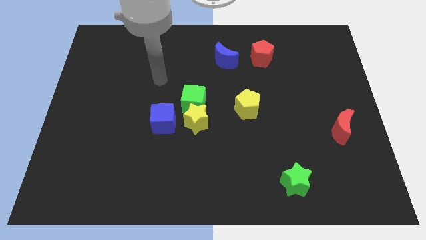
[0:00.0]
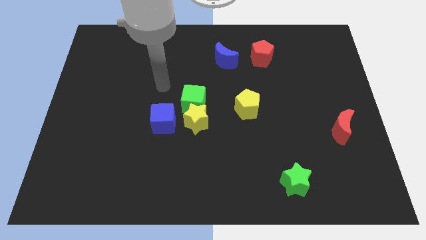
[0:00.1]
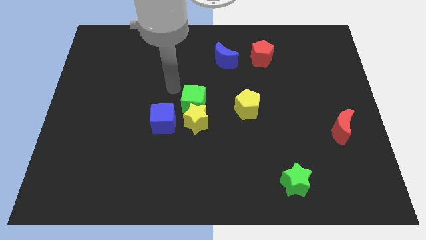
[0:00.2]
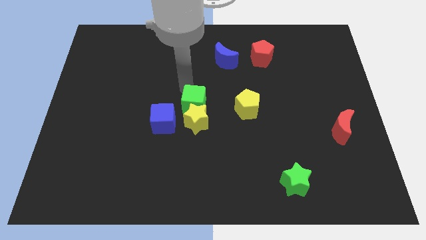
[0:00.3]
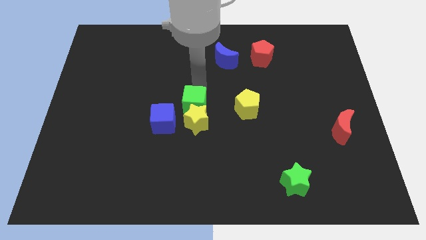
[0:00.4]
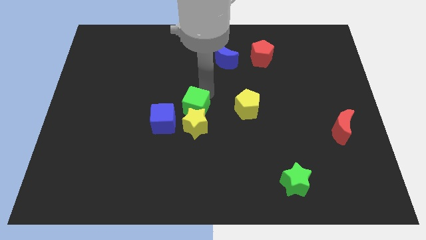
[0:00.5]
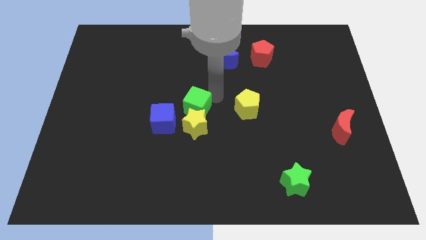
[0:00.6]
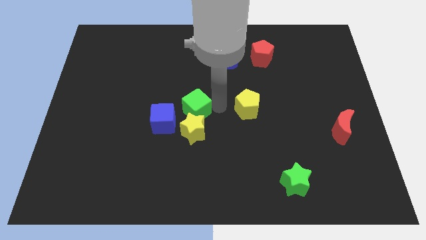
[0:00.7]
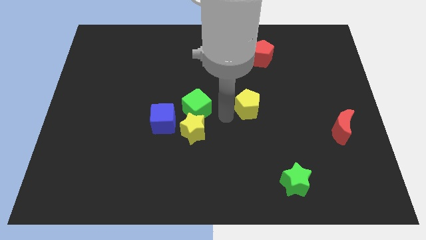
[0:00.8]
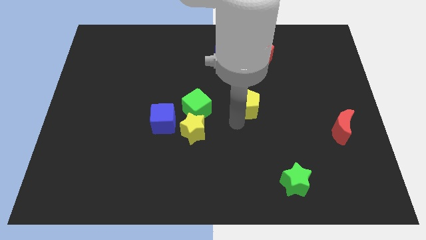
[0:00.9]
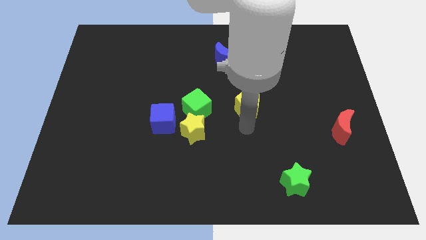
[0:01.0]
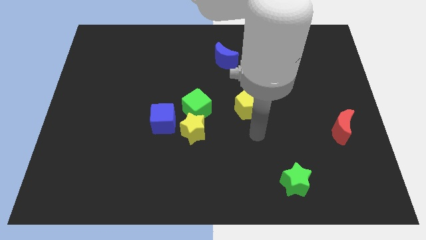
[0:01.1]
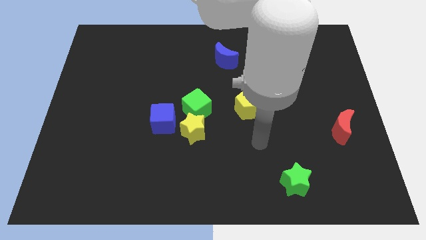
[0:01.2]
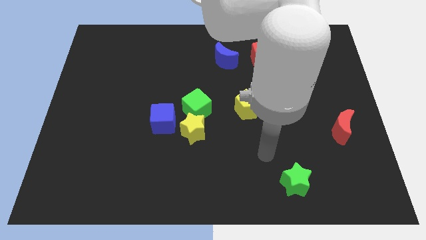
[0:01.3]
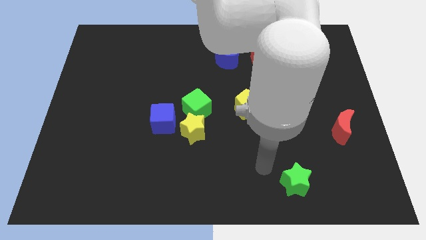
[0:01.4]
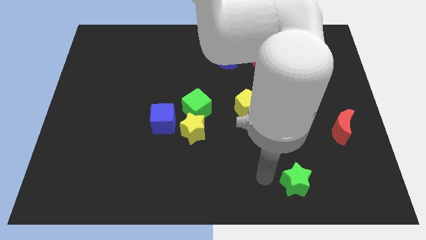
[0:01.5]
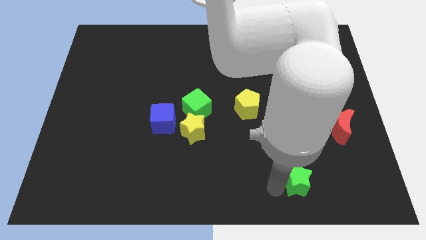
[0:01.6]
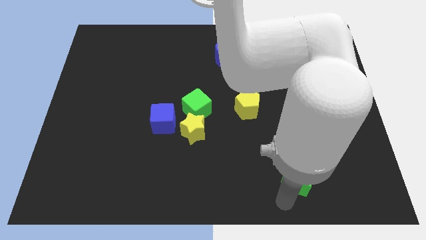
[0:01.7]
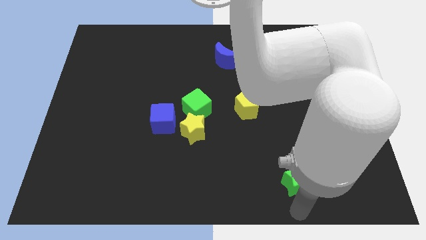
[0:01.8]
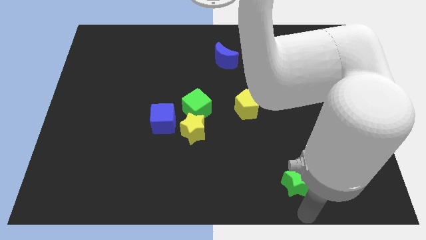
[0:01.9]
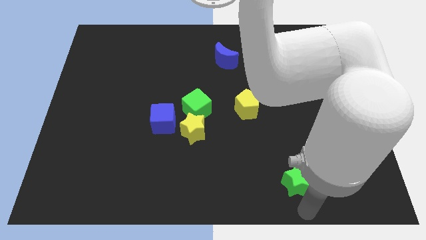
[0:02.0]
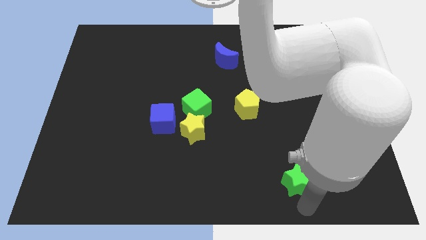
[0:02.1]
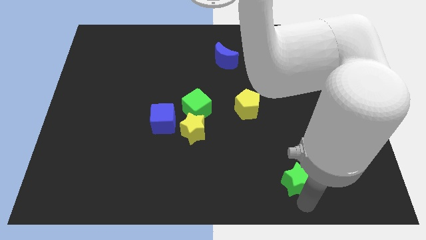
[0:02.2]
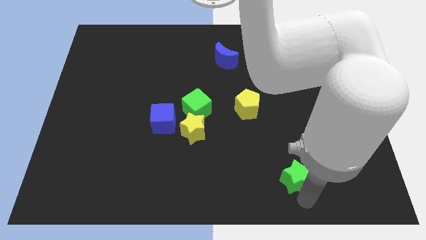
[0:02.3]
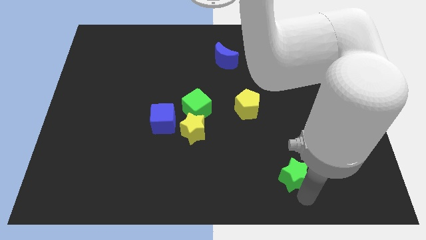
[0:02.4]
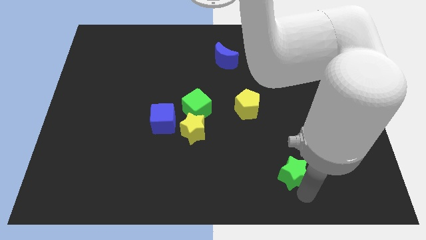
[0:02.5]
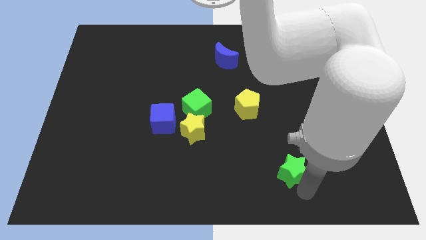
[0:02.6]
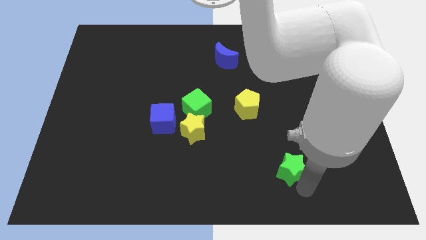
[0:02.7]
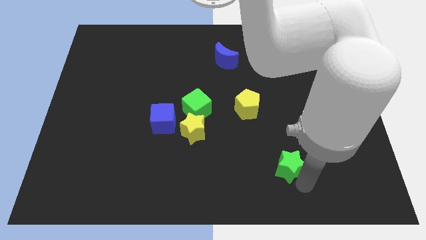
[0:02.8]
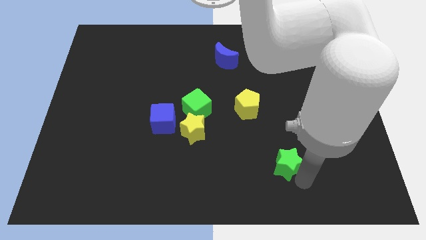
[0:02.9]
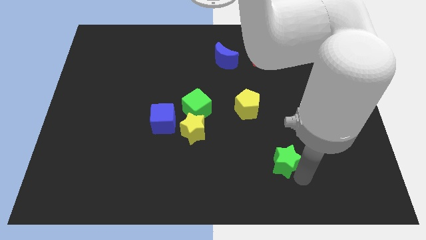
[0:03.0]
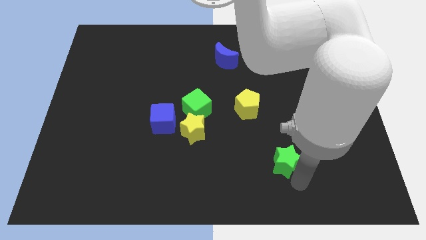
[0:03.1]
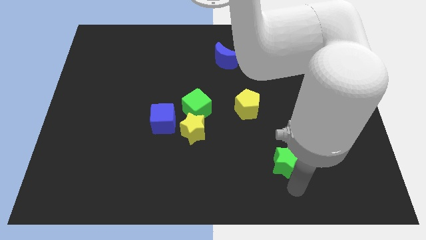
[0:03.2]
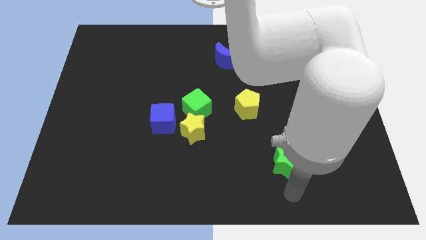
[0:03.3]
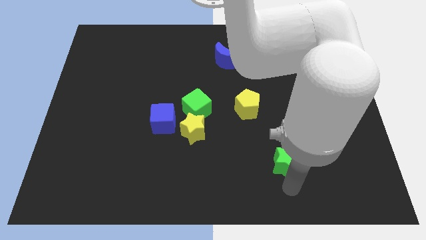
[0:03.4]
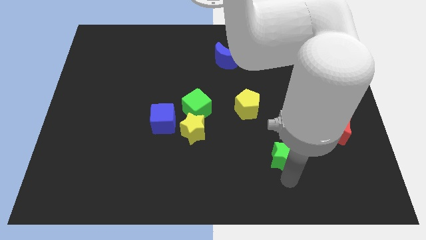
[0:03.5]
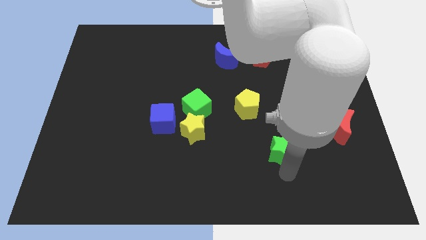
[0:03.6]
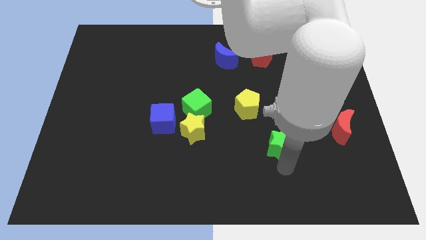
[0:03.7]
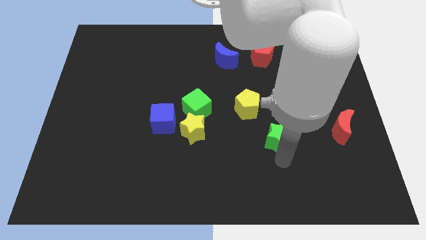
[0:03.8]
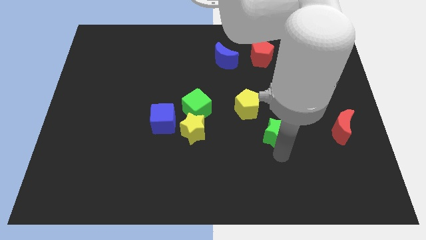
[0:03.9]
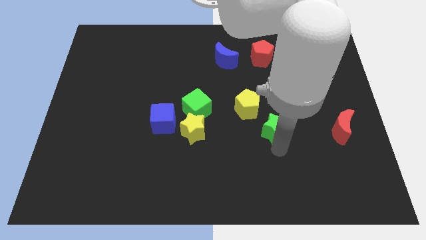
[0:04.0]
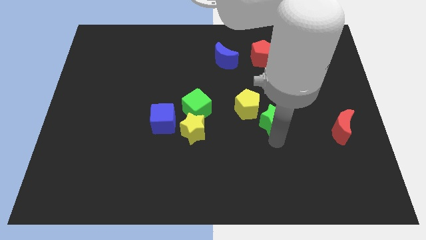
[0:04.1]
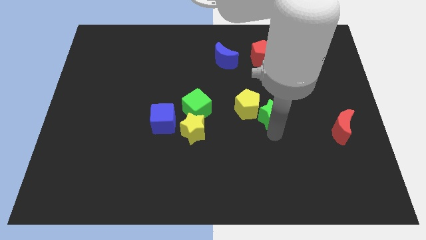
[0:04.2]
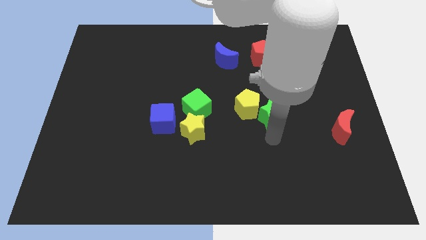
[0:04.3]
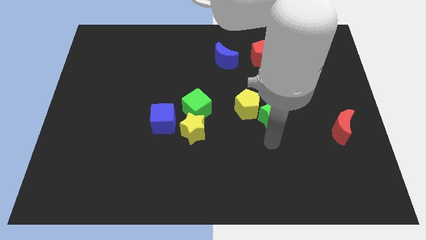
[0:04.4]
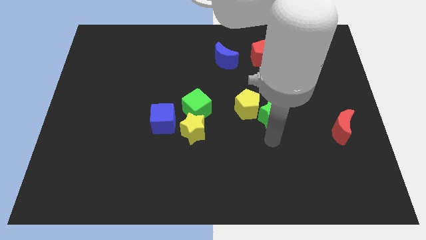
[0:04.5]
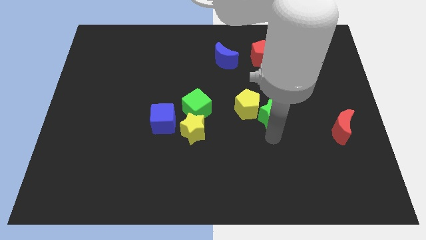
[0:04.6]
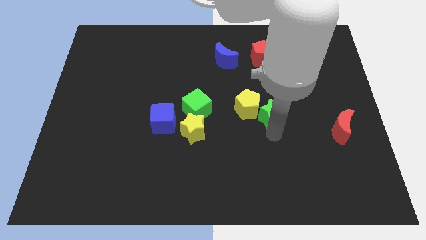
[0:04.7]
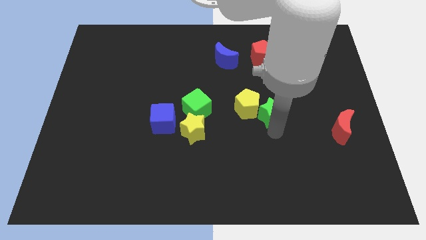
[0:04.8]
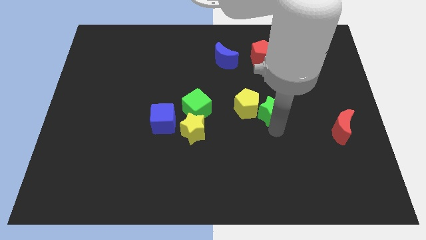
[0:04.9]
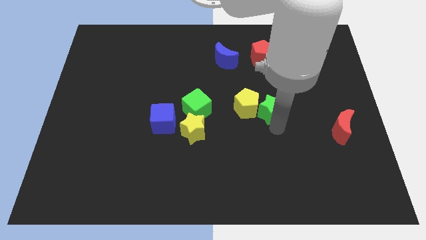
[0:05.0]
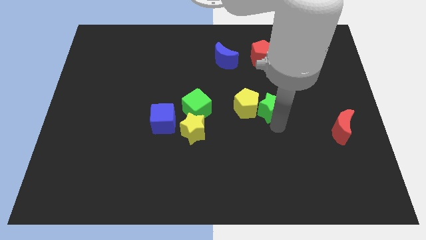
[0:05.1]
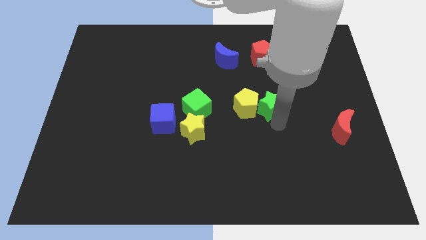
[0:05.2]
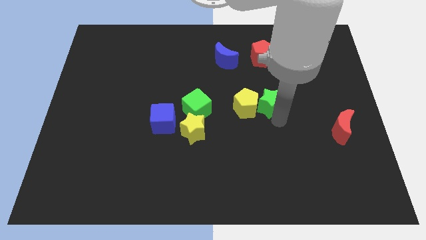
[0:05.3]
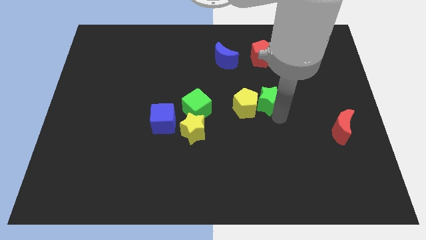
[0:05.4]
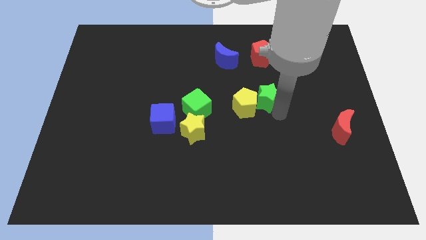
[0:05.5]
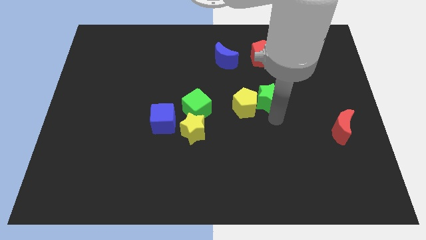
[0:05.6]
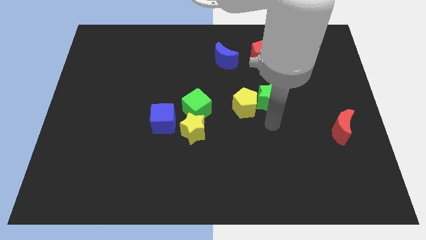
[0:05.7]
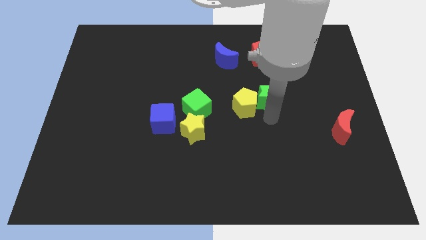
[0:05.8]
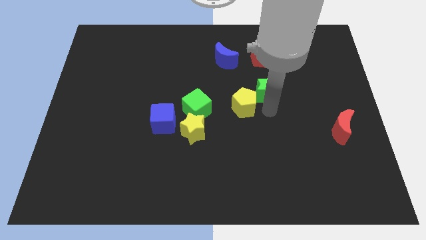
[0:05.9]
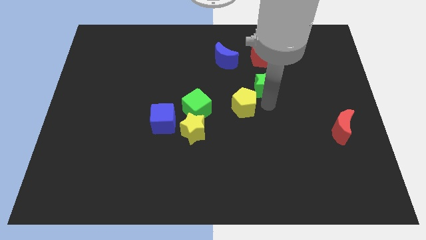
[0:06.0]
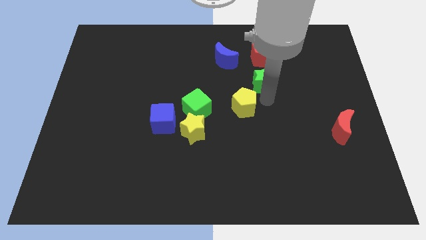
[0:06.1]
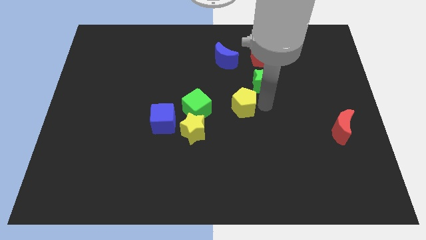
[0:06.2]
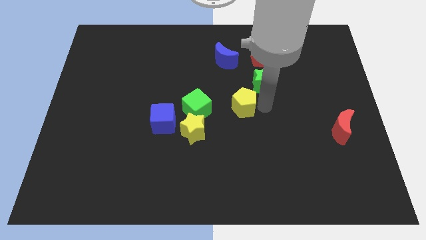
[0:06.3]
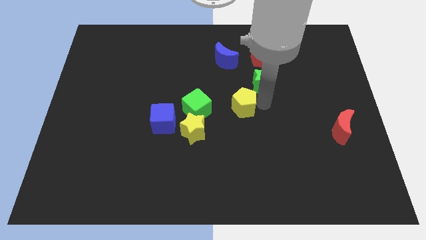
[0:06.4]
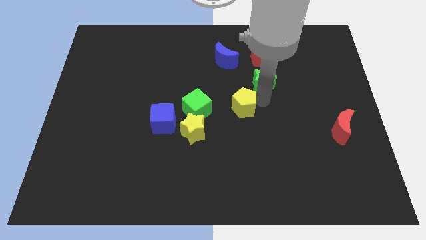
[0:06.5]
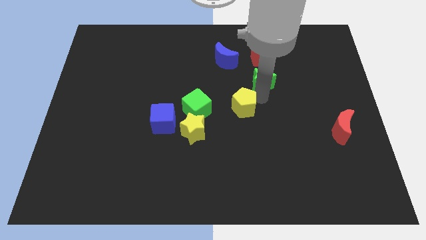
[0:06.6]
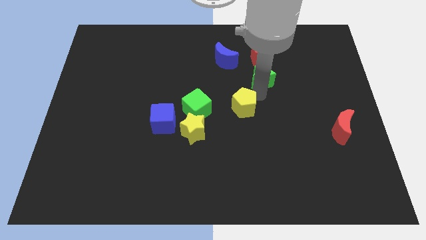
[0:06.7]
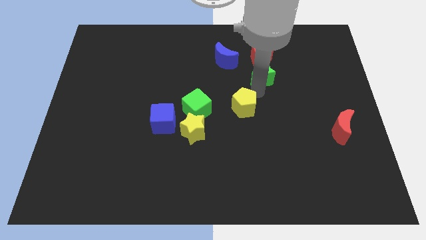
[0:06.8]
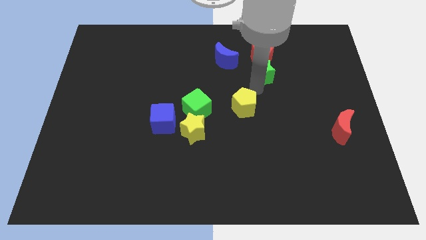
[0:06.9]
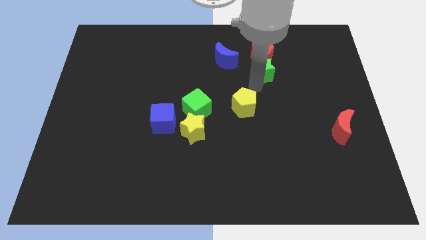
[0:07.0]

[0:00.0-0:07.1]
put the green star close to the red pentagon

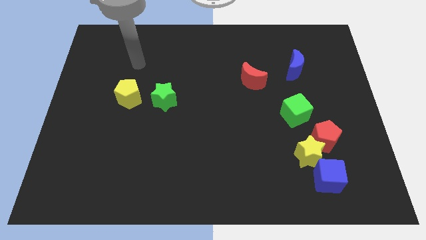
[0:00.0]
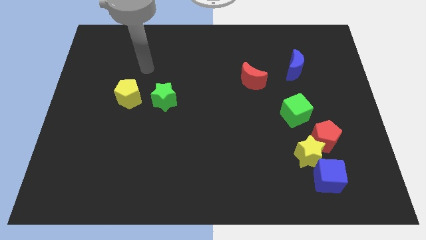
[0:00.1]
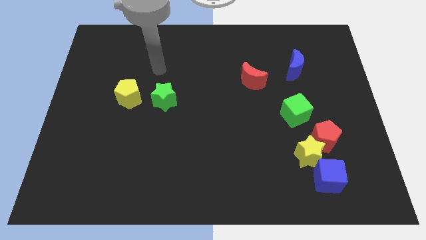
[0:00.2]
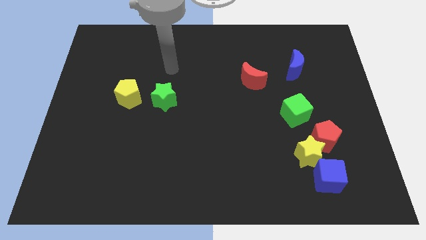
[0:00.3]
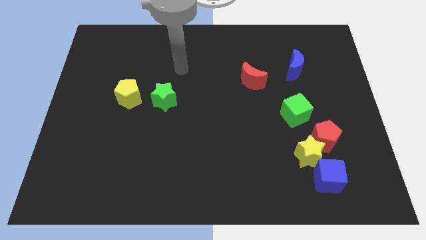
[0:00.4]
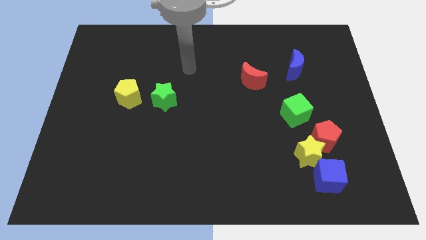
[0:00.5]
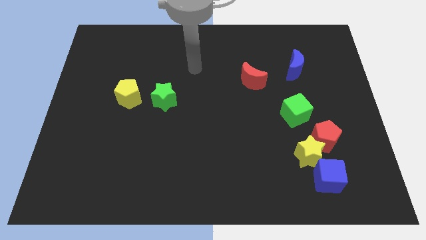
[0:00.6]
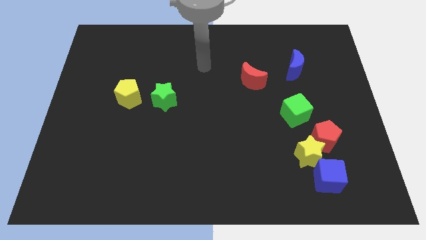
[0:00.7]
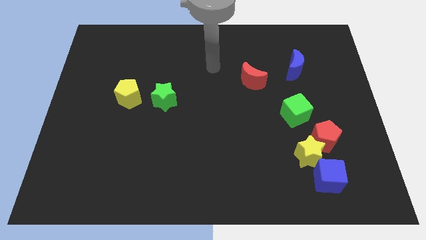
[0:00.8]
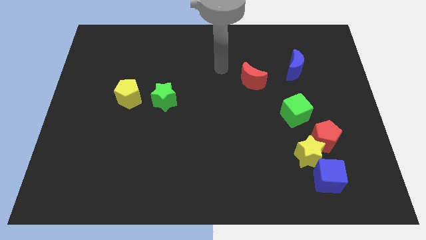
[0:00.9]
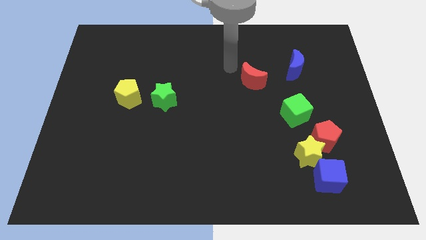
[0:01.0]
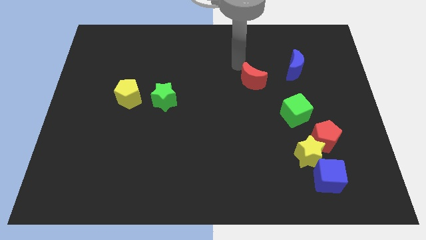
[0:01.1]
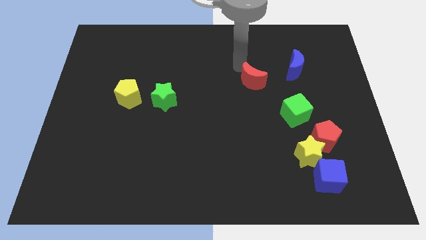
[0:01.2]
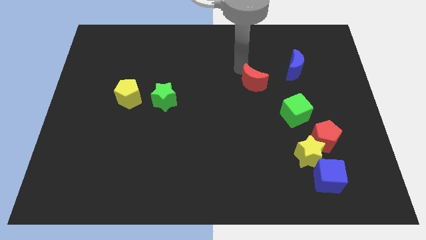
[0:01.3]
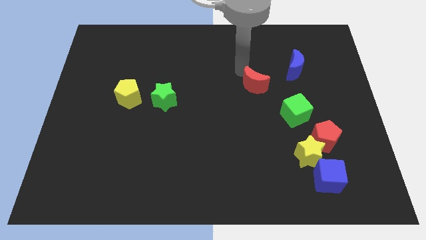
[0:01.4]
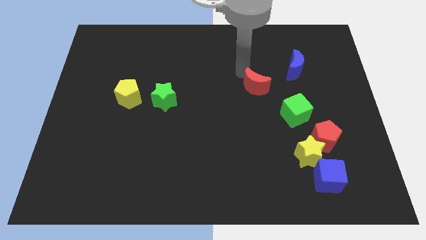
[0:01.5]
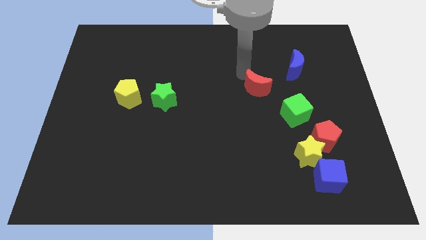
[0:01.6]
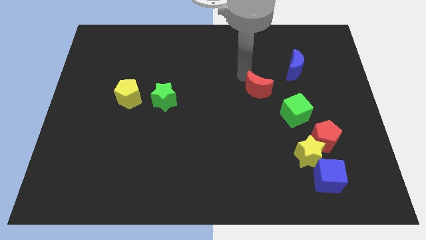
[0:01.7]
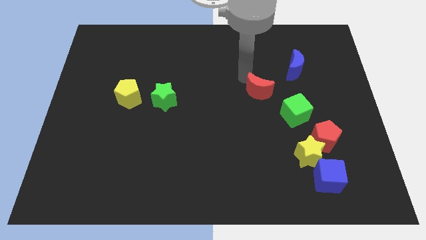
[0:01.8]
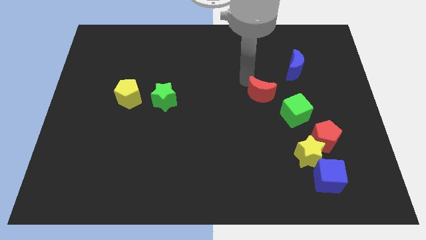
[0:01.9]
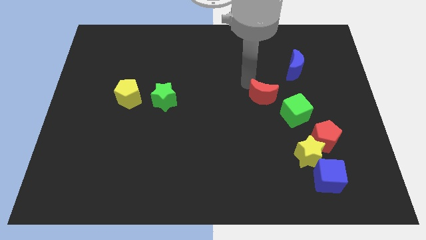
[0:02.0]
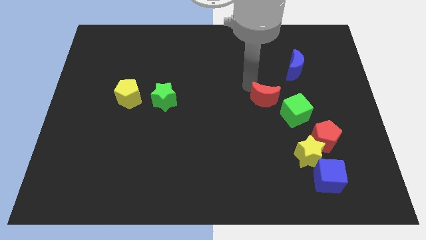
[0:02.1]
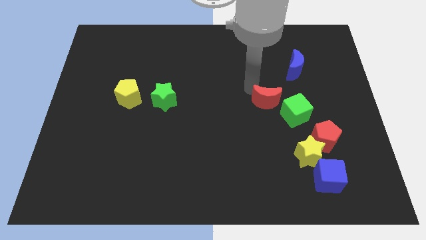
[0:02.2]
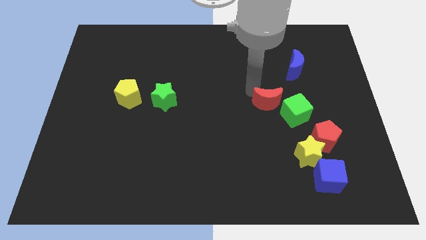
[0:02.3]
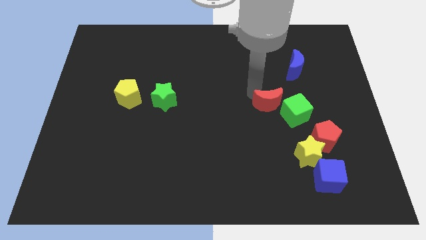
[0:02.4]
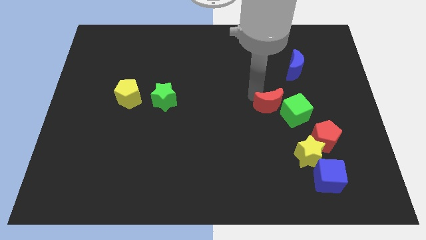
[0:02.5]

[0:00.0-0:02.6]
move the red moon next to the green cube
